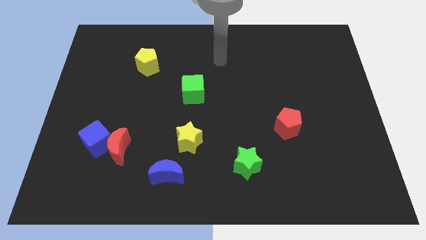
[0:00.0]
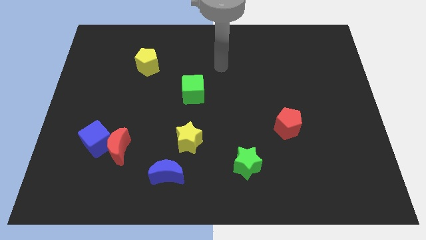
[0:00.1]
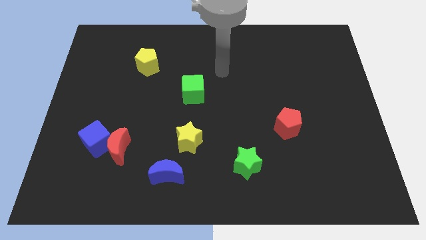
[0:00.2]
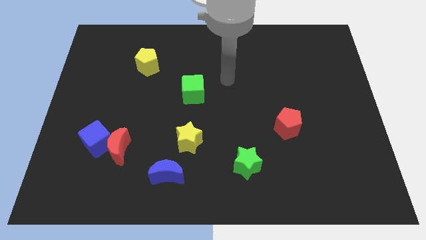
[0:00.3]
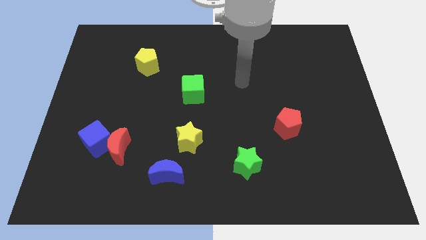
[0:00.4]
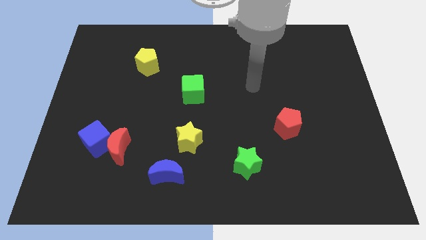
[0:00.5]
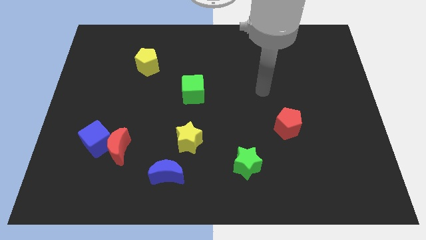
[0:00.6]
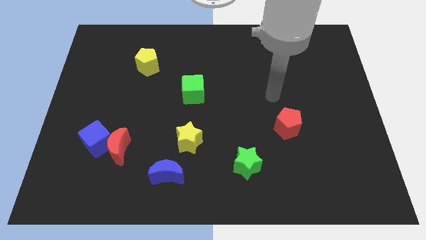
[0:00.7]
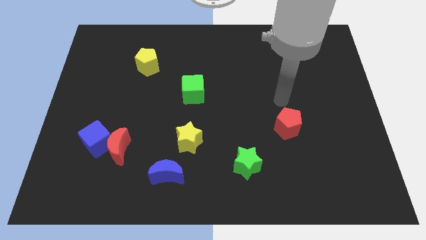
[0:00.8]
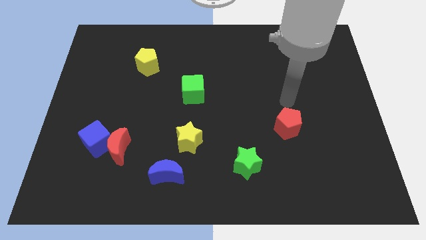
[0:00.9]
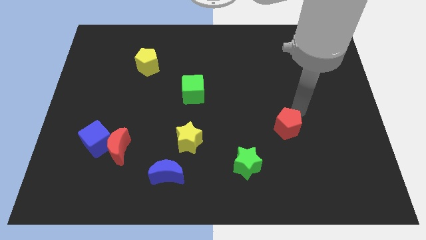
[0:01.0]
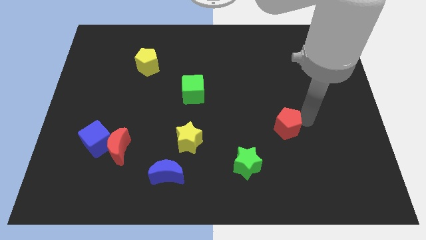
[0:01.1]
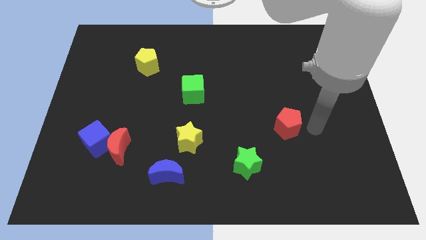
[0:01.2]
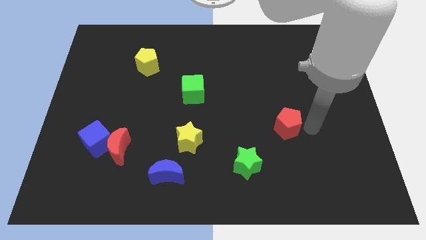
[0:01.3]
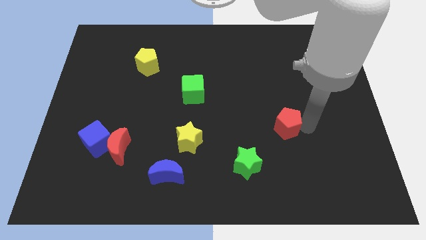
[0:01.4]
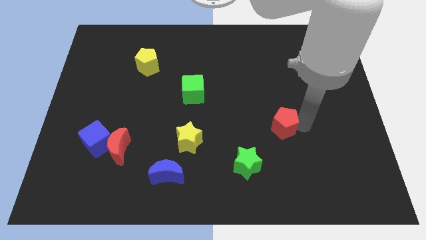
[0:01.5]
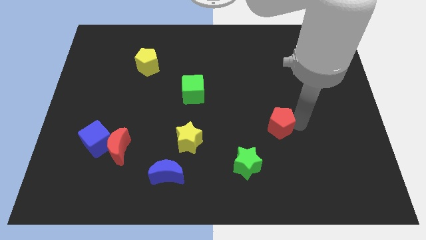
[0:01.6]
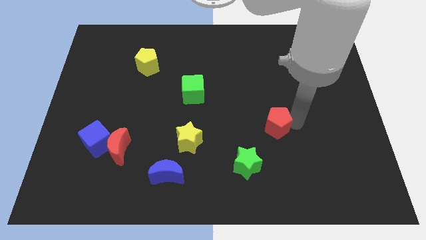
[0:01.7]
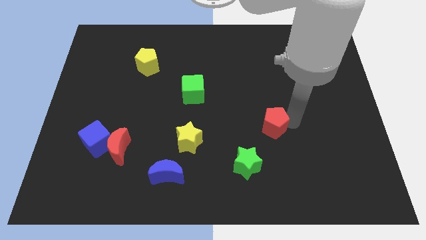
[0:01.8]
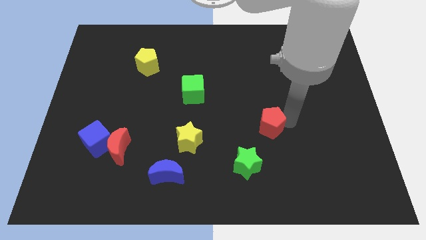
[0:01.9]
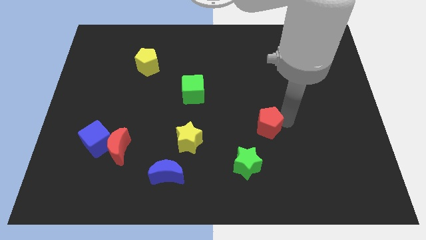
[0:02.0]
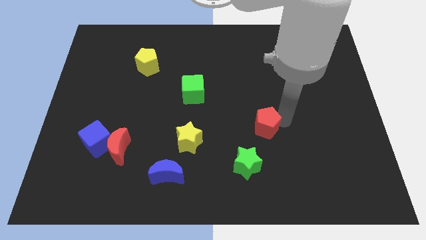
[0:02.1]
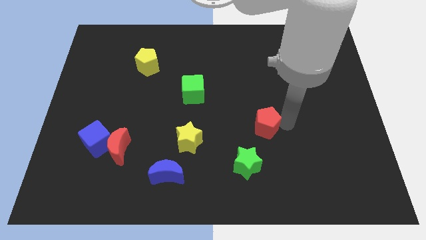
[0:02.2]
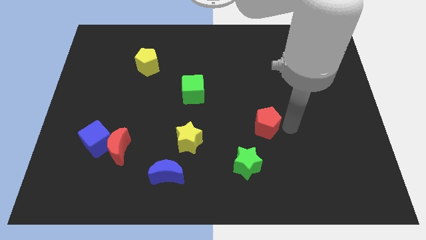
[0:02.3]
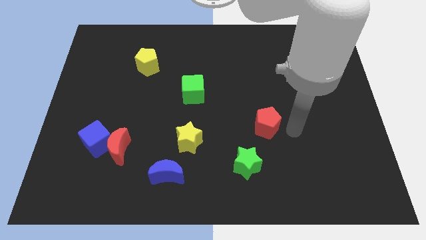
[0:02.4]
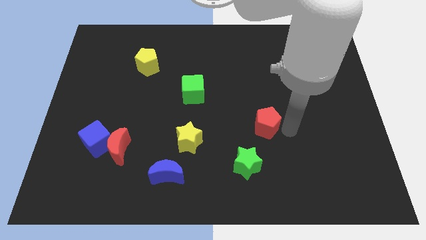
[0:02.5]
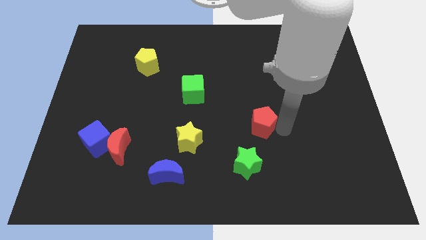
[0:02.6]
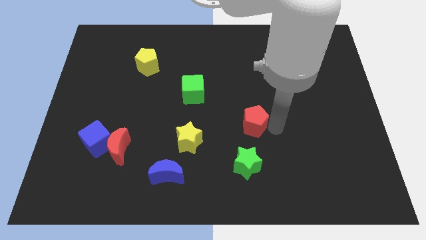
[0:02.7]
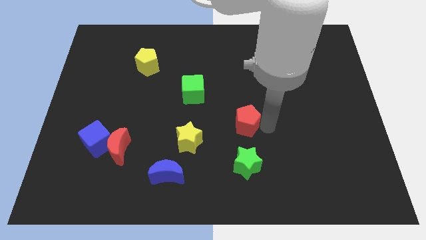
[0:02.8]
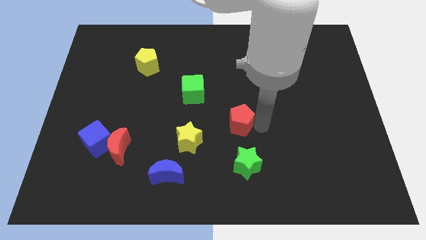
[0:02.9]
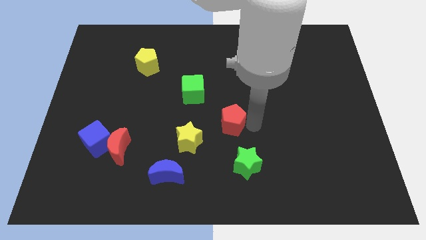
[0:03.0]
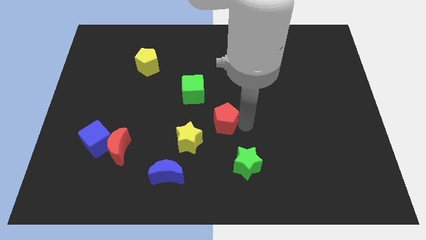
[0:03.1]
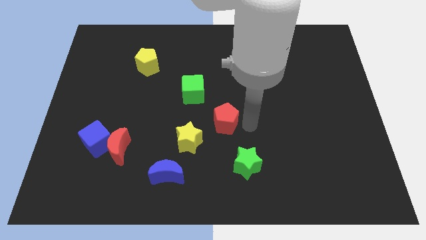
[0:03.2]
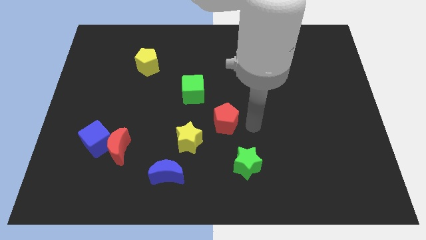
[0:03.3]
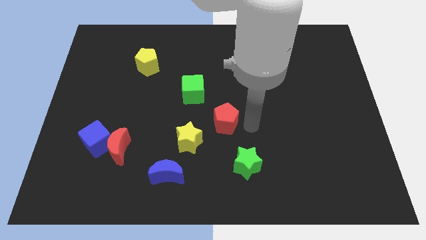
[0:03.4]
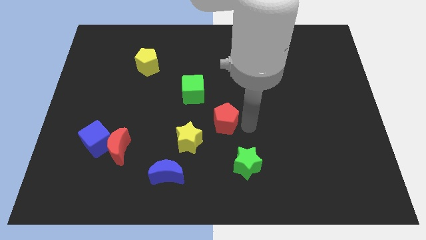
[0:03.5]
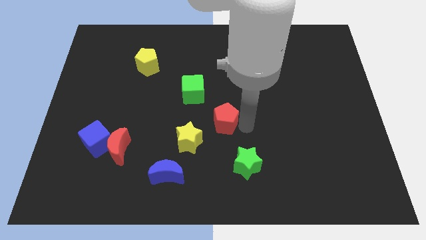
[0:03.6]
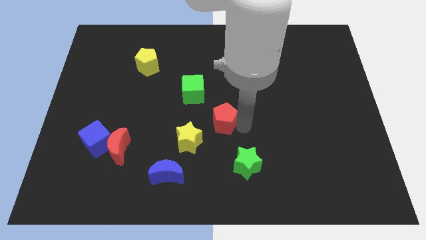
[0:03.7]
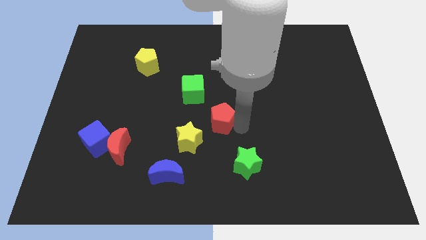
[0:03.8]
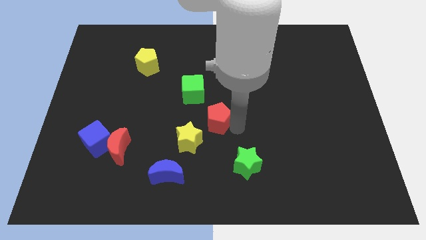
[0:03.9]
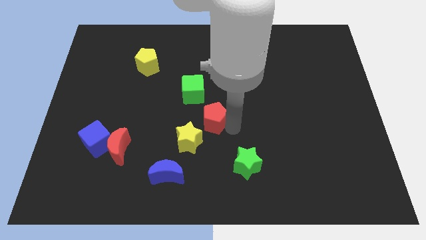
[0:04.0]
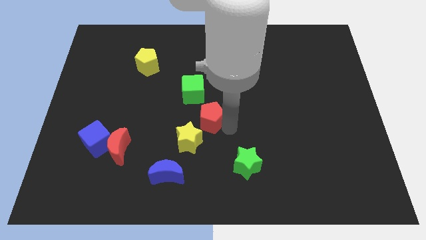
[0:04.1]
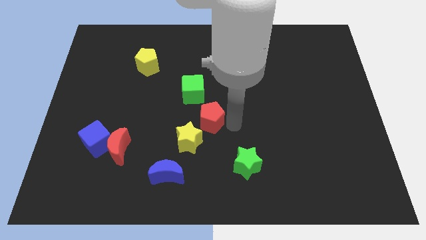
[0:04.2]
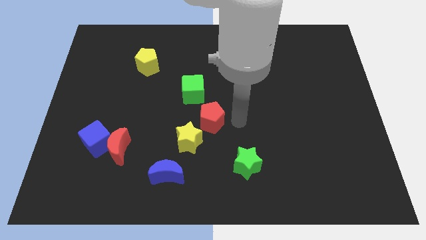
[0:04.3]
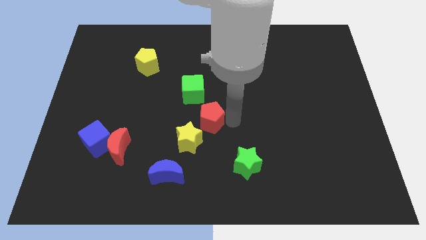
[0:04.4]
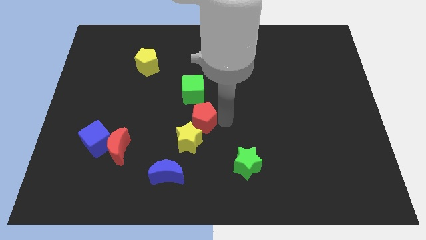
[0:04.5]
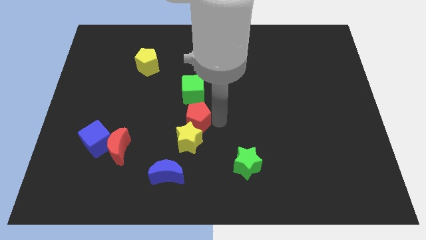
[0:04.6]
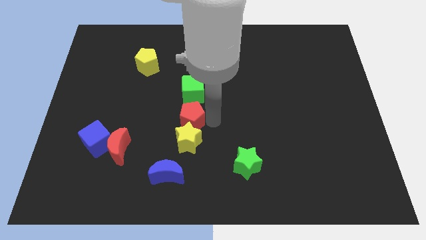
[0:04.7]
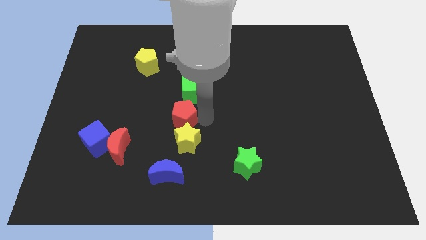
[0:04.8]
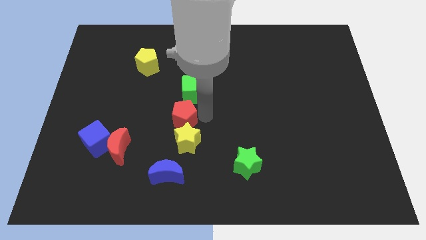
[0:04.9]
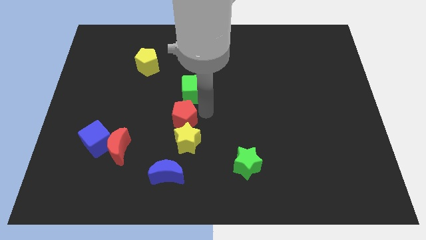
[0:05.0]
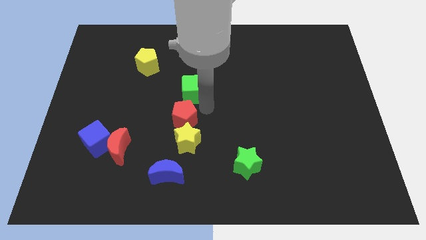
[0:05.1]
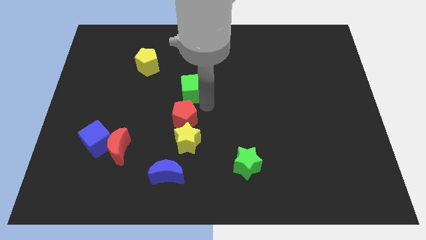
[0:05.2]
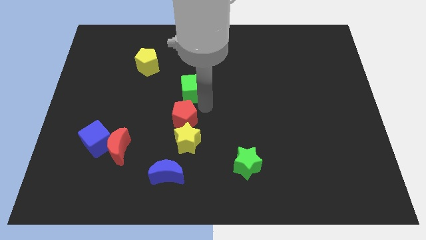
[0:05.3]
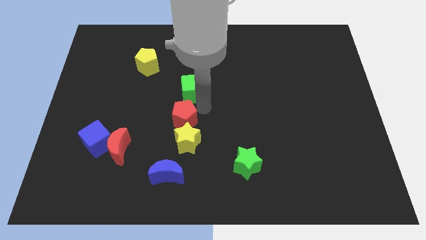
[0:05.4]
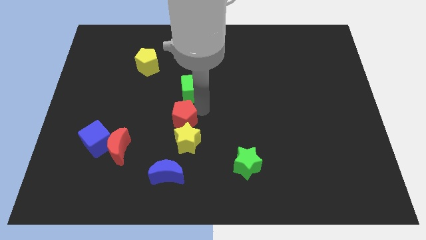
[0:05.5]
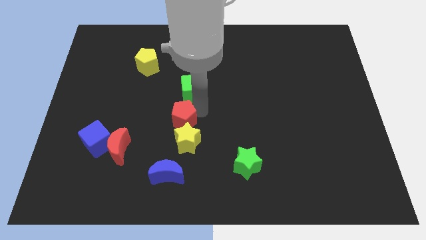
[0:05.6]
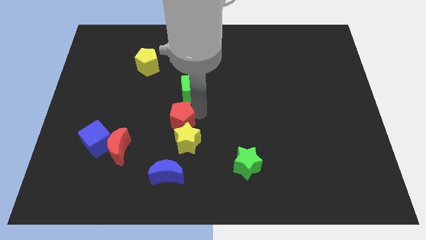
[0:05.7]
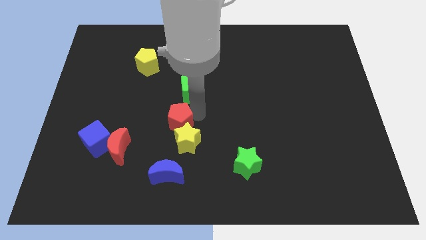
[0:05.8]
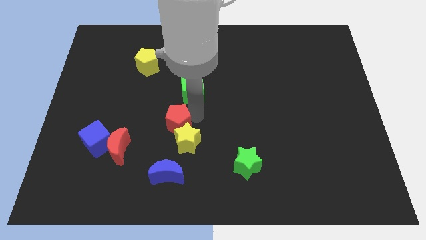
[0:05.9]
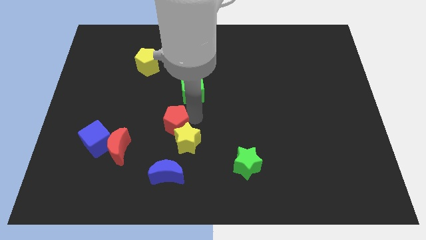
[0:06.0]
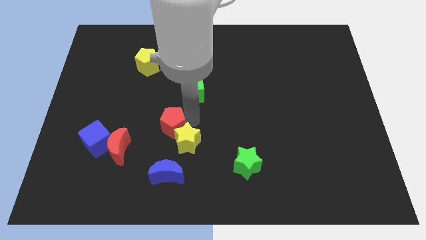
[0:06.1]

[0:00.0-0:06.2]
slide the red pentagon left of the yellow star

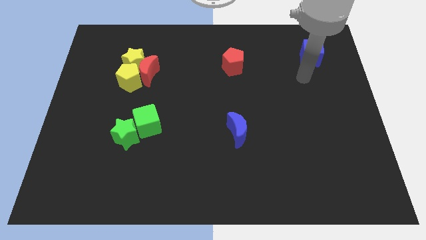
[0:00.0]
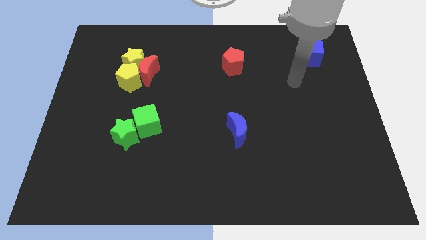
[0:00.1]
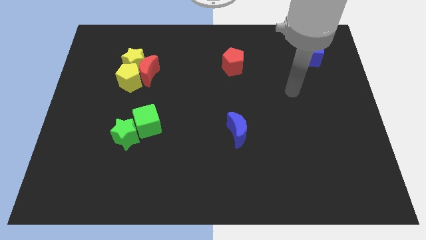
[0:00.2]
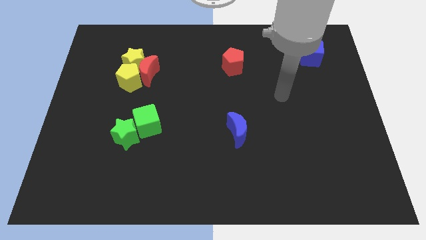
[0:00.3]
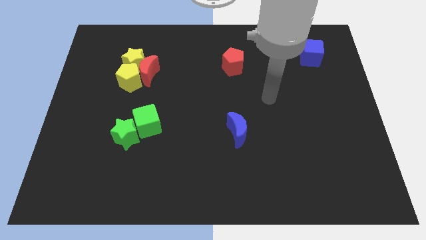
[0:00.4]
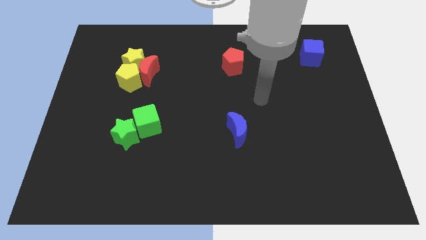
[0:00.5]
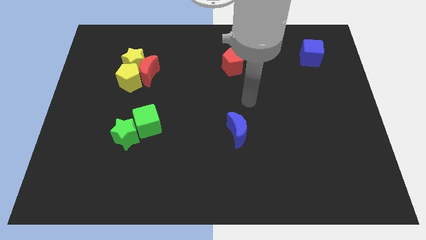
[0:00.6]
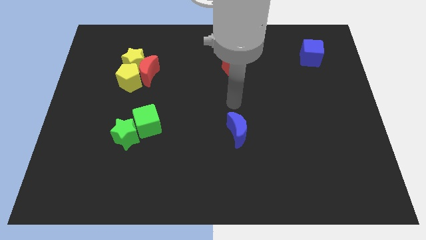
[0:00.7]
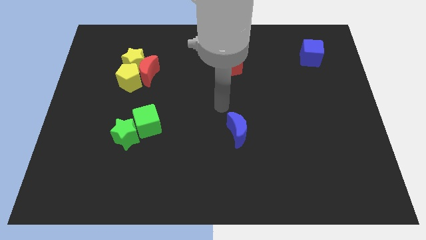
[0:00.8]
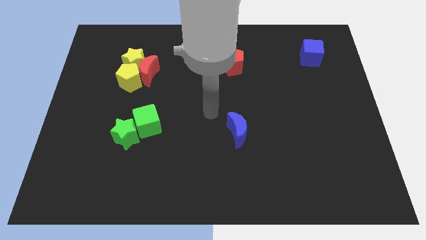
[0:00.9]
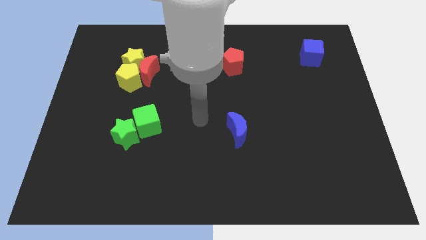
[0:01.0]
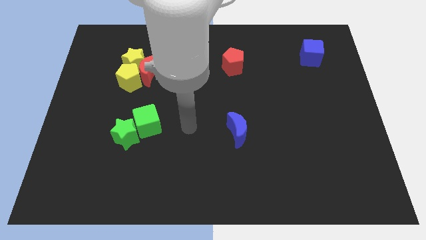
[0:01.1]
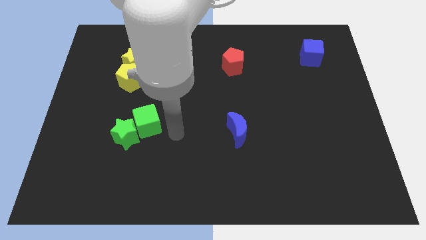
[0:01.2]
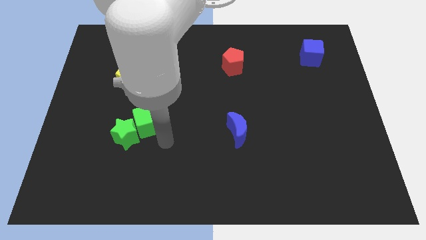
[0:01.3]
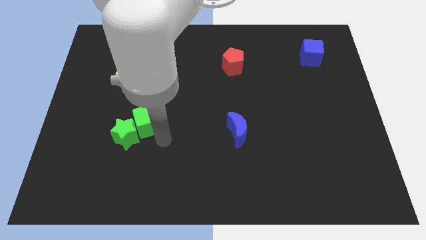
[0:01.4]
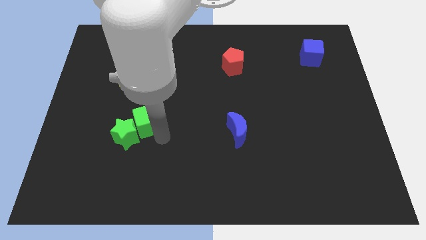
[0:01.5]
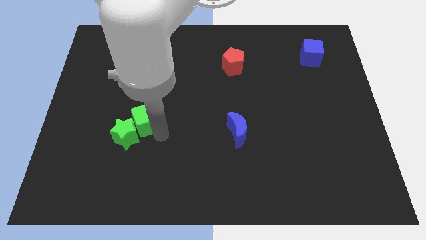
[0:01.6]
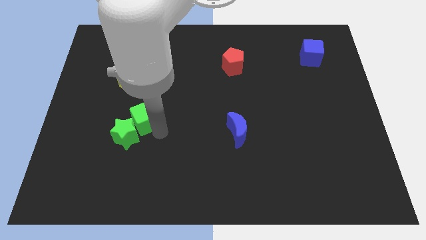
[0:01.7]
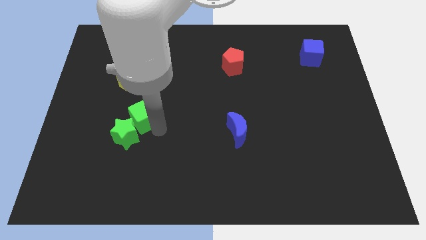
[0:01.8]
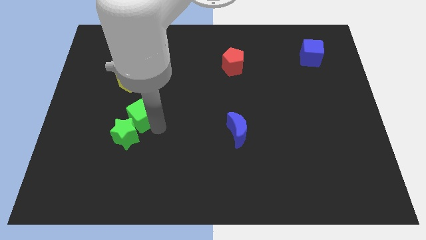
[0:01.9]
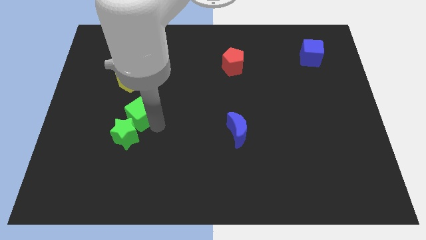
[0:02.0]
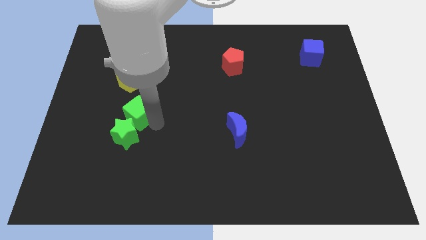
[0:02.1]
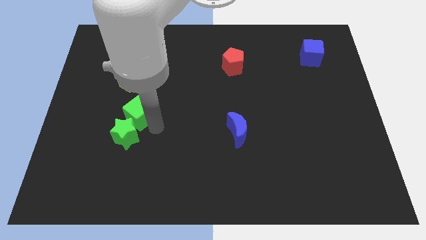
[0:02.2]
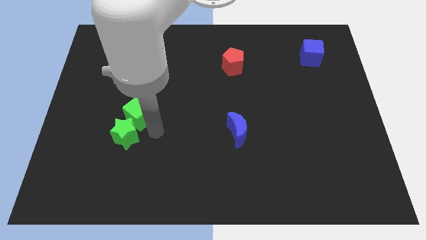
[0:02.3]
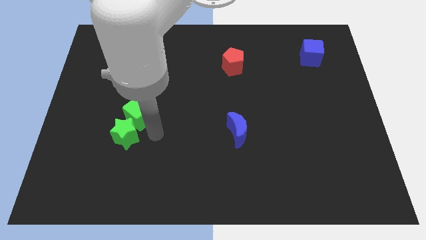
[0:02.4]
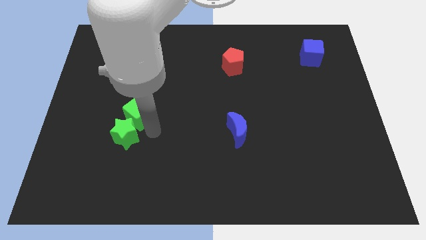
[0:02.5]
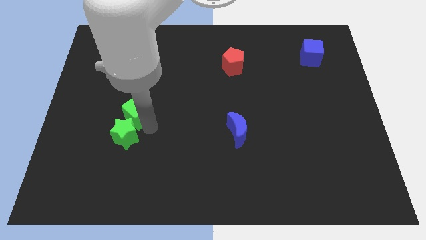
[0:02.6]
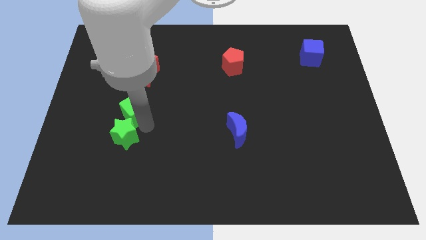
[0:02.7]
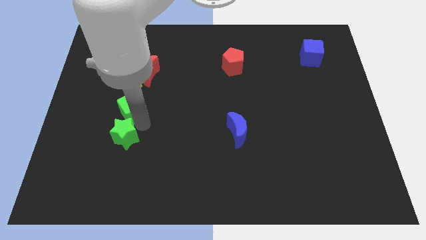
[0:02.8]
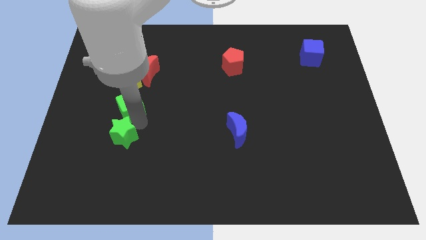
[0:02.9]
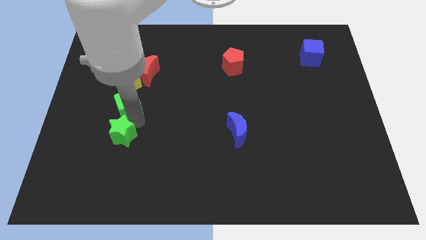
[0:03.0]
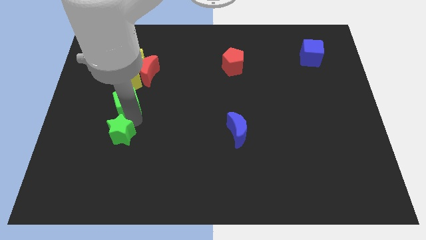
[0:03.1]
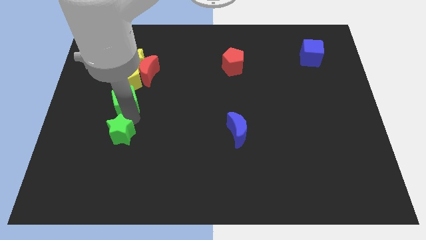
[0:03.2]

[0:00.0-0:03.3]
push the green cube to the bottom left side of the red moon
